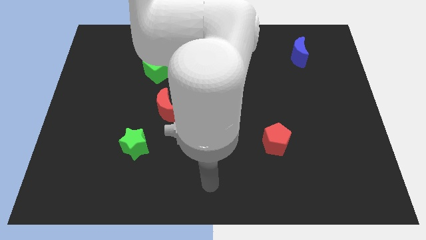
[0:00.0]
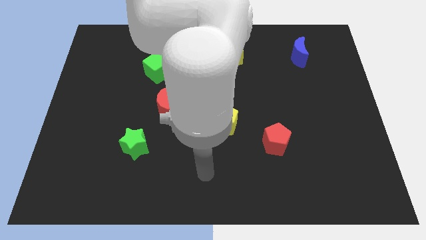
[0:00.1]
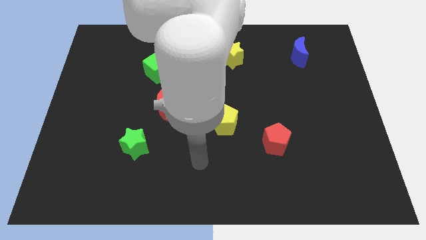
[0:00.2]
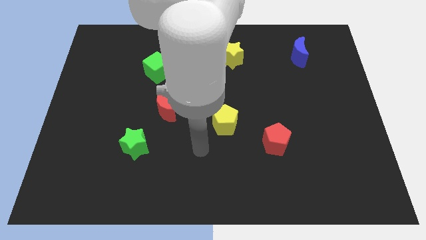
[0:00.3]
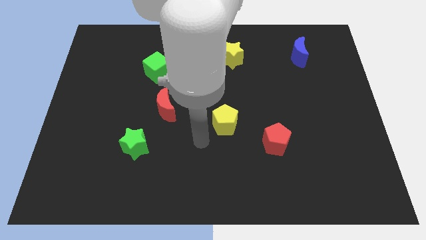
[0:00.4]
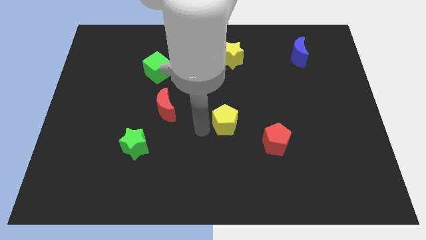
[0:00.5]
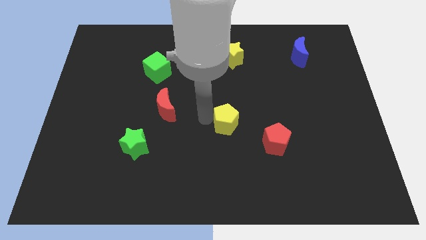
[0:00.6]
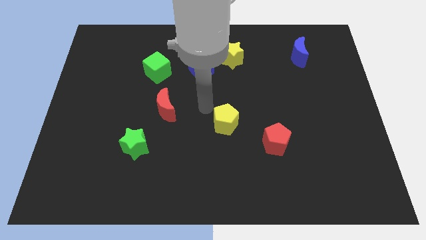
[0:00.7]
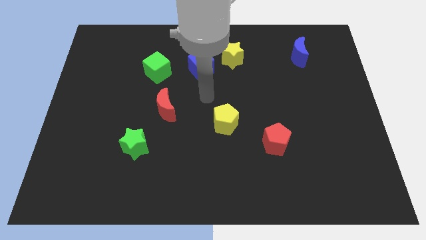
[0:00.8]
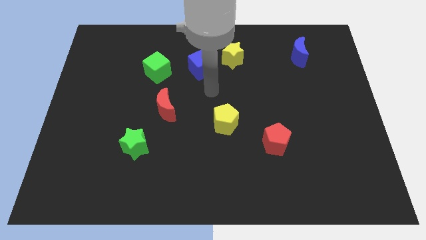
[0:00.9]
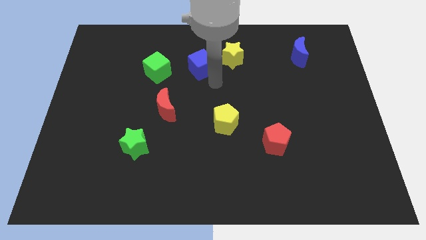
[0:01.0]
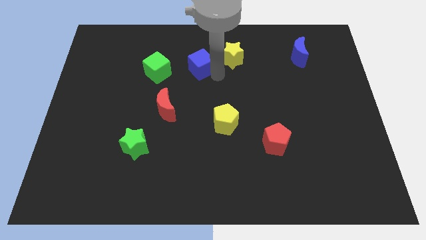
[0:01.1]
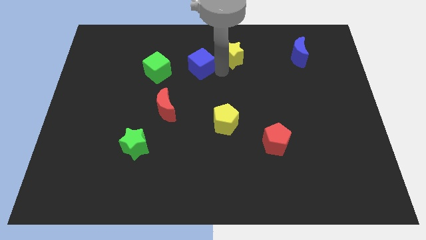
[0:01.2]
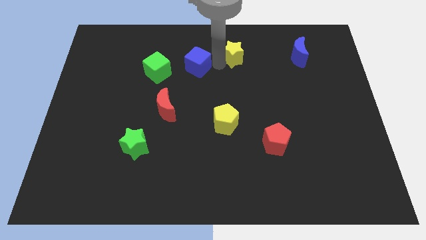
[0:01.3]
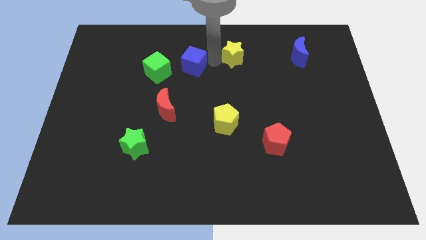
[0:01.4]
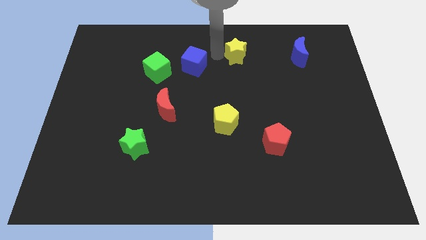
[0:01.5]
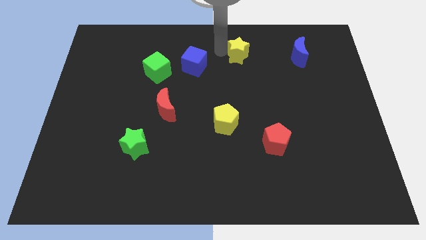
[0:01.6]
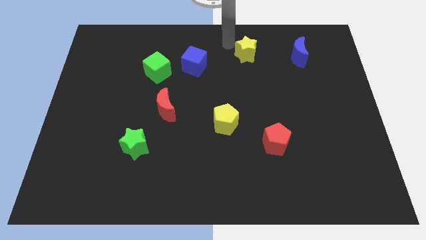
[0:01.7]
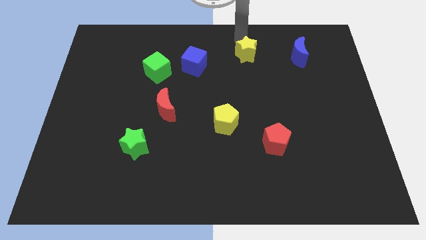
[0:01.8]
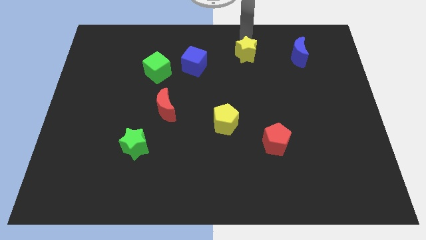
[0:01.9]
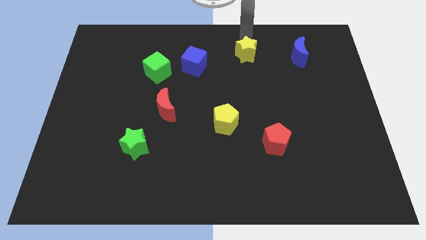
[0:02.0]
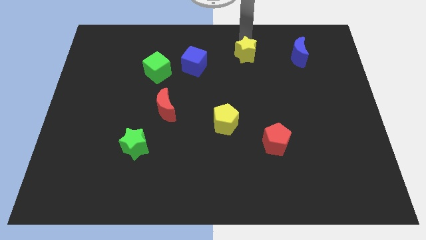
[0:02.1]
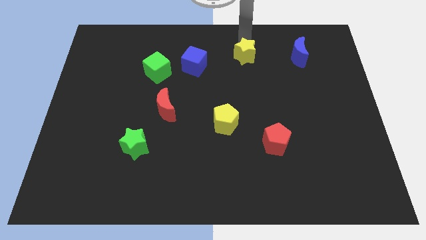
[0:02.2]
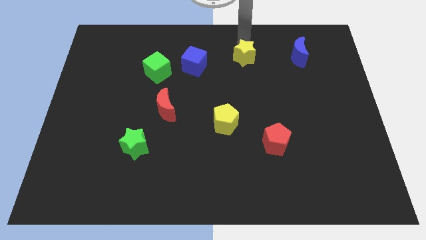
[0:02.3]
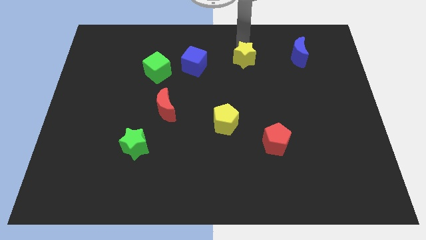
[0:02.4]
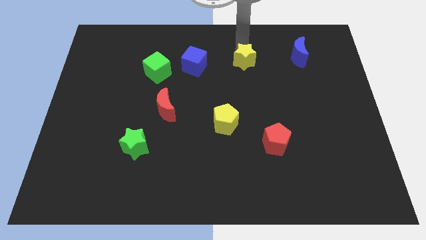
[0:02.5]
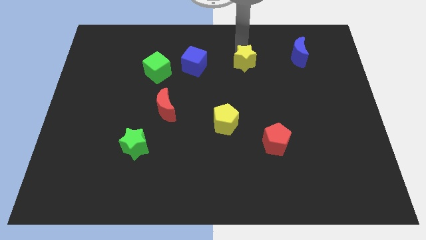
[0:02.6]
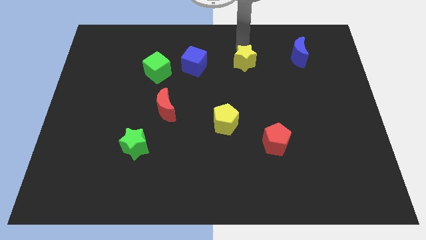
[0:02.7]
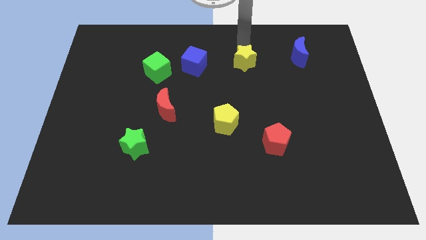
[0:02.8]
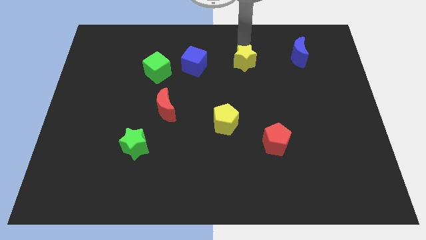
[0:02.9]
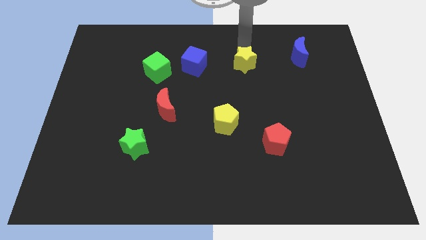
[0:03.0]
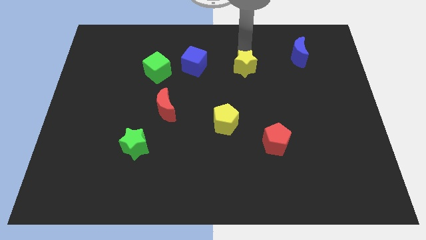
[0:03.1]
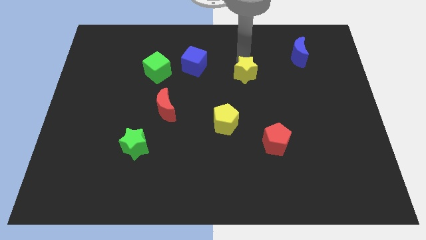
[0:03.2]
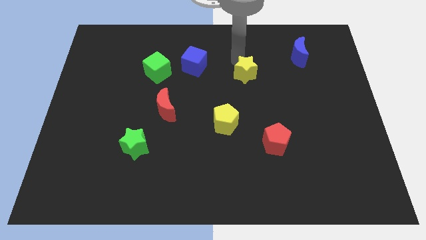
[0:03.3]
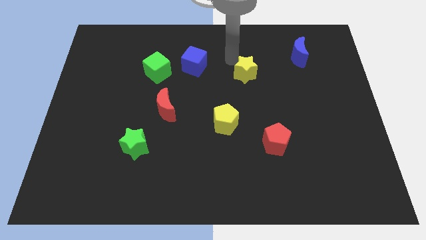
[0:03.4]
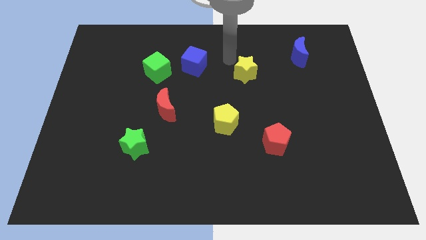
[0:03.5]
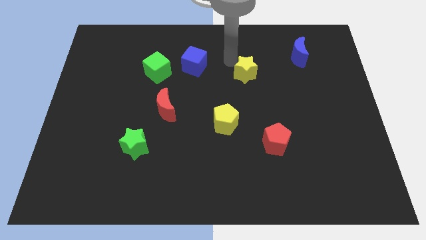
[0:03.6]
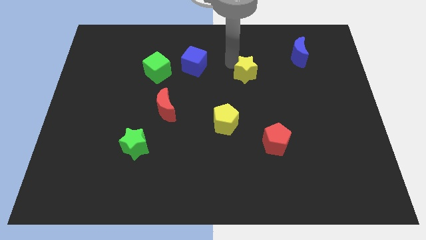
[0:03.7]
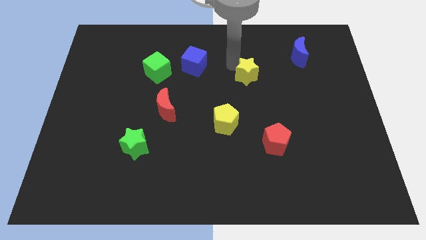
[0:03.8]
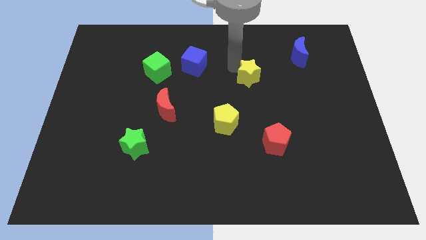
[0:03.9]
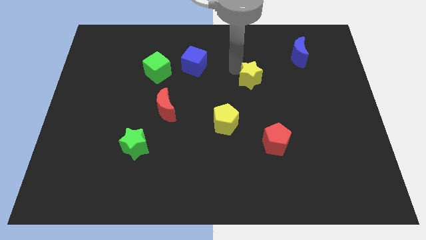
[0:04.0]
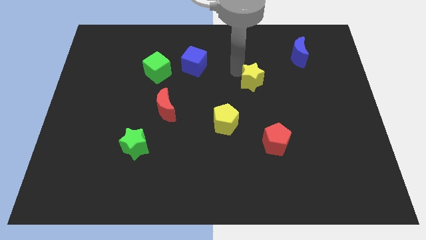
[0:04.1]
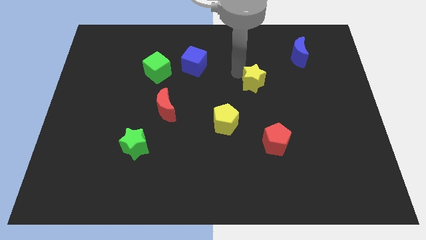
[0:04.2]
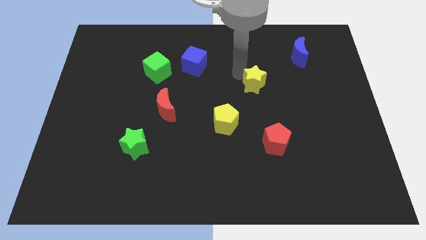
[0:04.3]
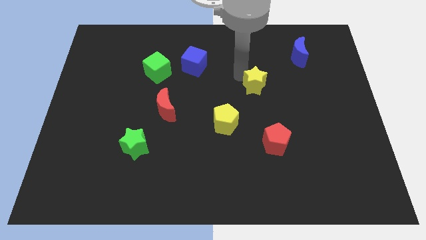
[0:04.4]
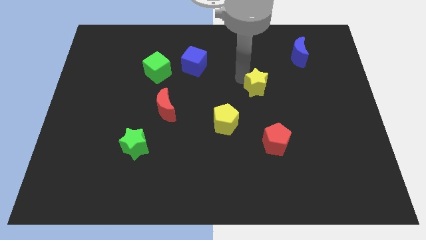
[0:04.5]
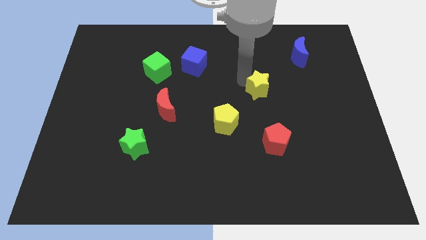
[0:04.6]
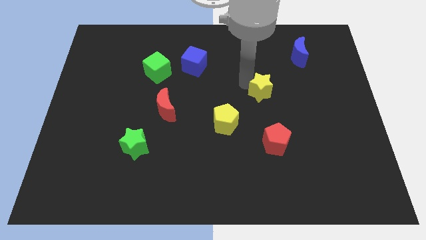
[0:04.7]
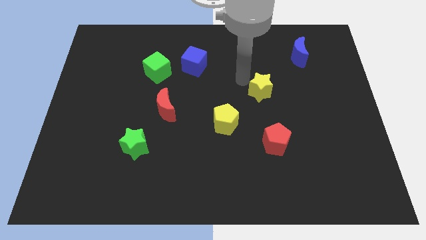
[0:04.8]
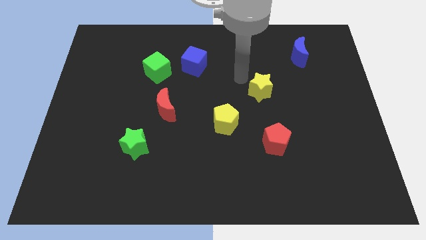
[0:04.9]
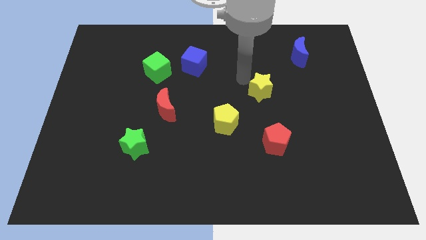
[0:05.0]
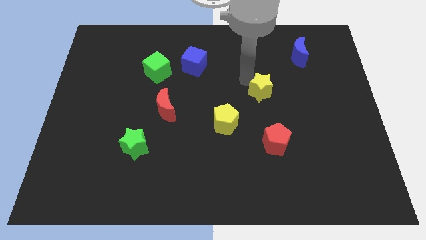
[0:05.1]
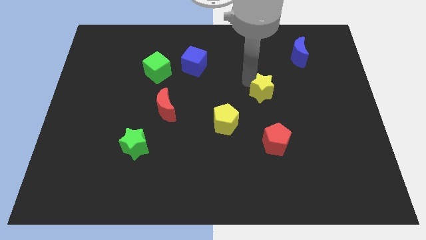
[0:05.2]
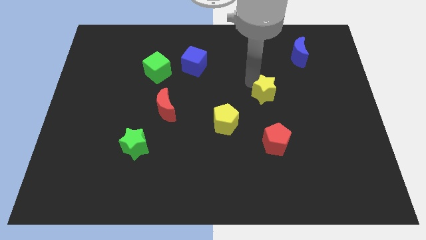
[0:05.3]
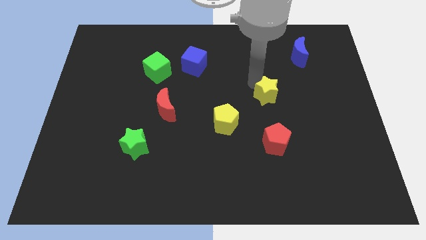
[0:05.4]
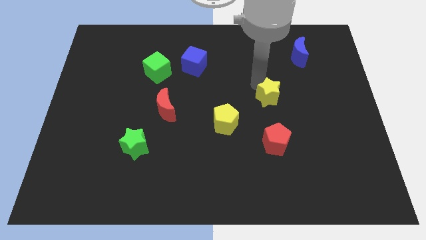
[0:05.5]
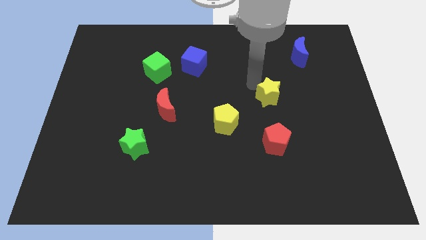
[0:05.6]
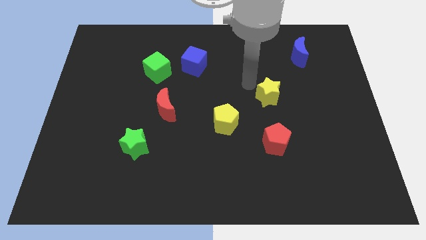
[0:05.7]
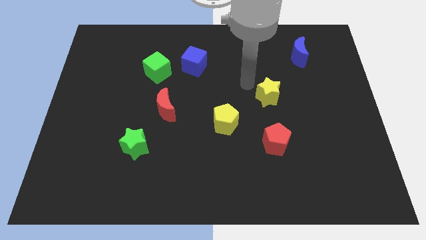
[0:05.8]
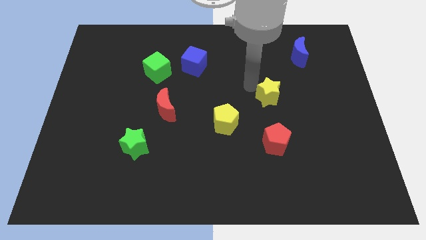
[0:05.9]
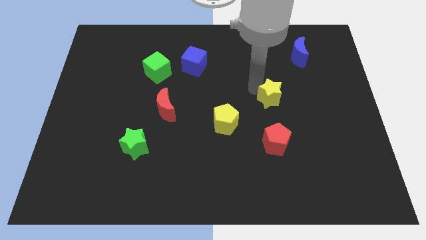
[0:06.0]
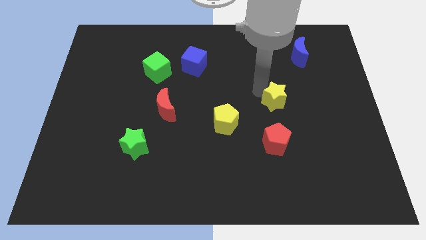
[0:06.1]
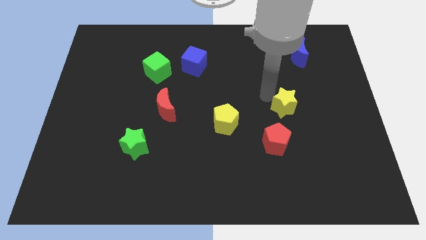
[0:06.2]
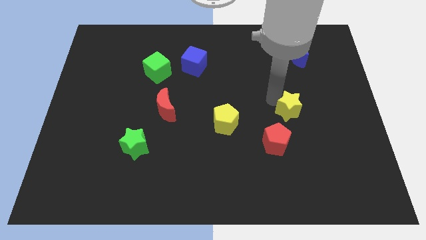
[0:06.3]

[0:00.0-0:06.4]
move the yellow star down and right

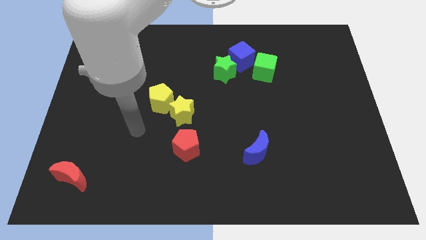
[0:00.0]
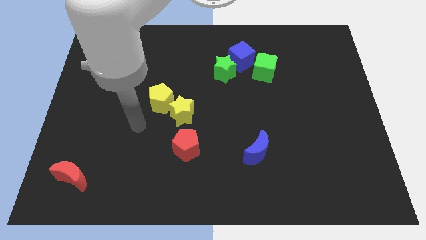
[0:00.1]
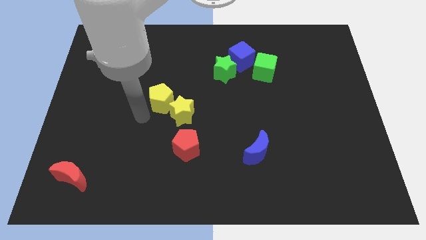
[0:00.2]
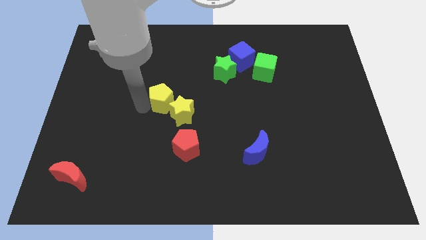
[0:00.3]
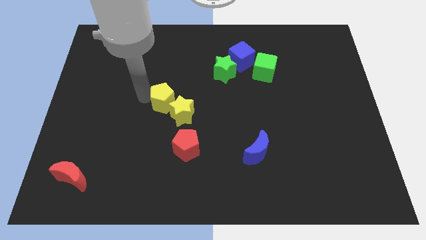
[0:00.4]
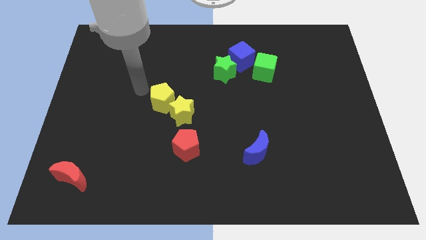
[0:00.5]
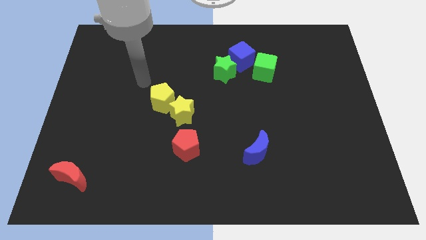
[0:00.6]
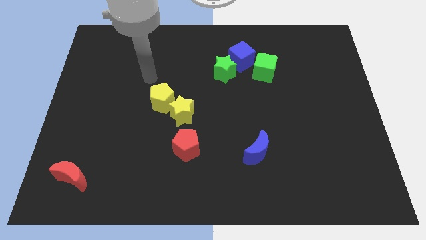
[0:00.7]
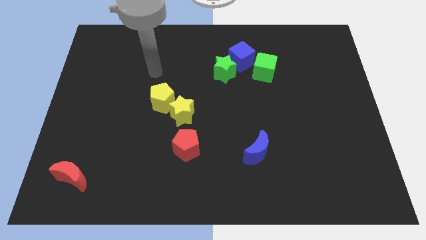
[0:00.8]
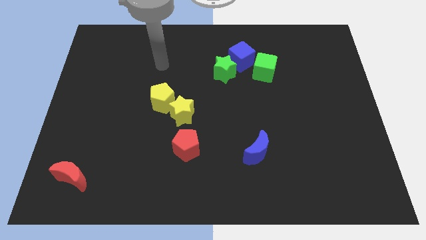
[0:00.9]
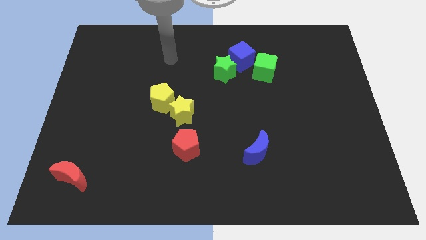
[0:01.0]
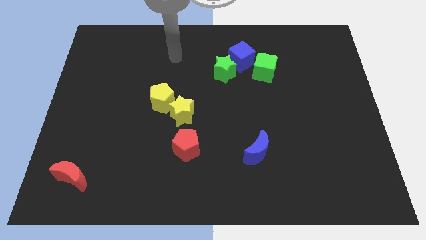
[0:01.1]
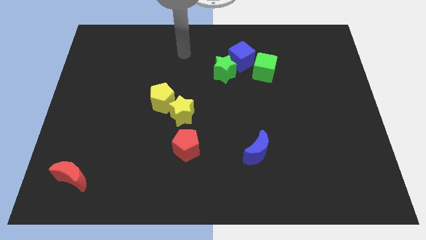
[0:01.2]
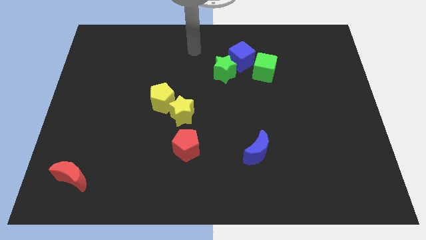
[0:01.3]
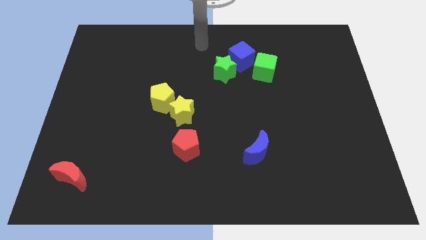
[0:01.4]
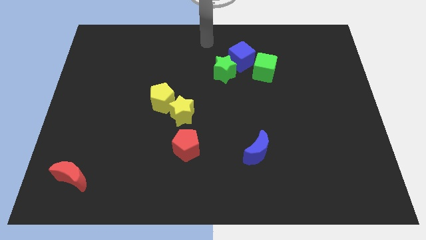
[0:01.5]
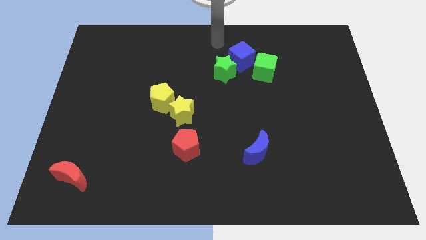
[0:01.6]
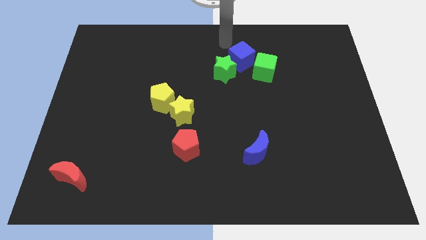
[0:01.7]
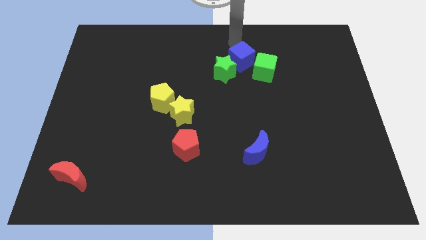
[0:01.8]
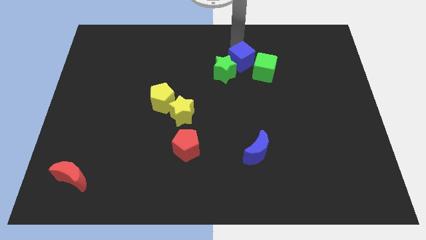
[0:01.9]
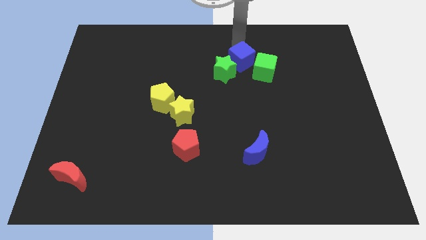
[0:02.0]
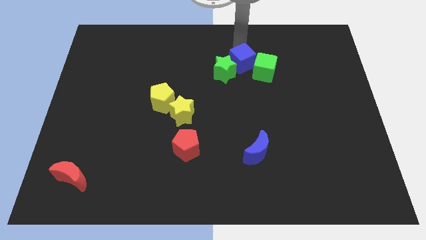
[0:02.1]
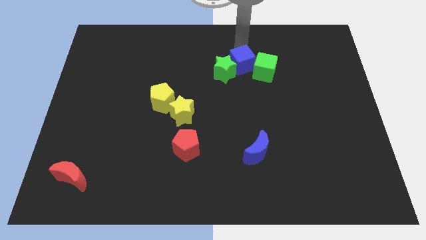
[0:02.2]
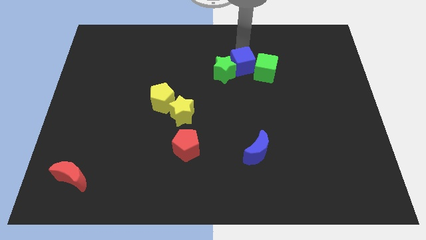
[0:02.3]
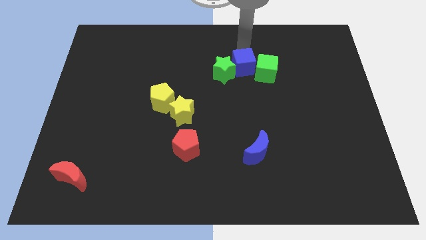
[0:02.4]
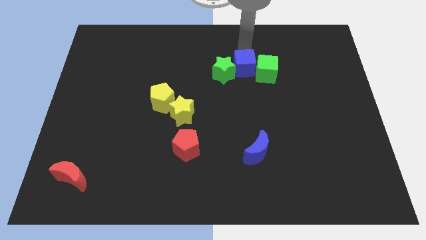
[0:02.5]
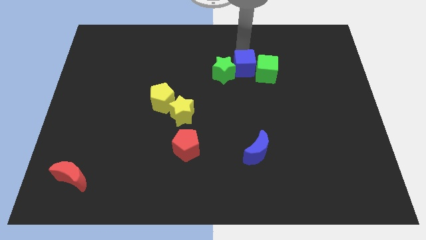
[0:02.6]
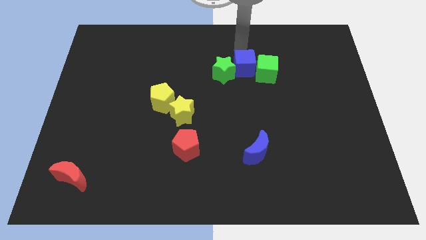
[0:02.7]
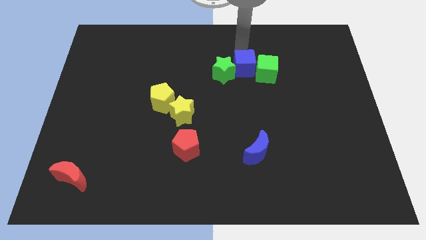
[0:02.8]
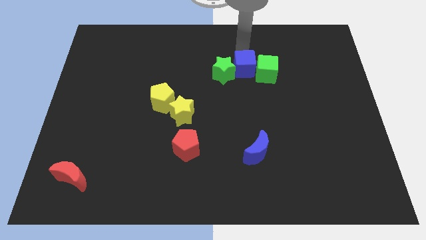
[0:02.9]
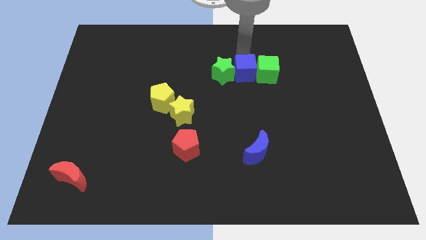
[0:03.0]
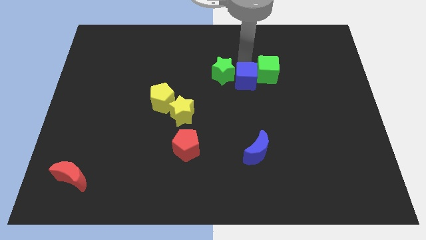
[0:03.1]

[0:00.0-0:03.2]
push the blue cube downwards somewhat
